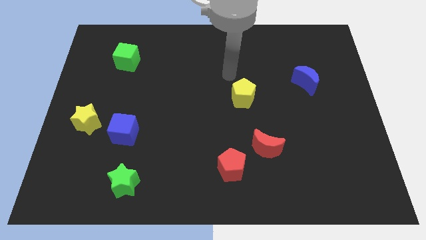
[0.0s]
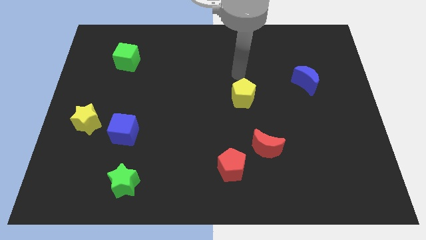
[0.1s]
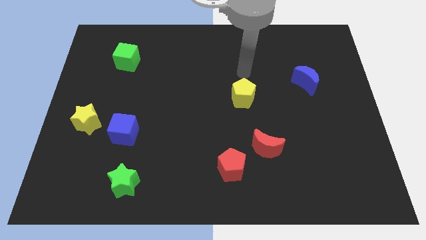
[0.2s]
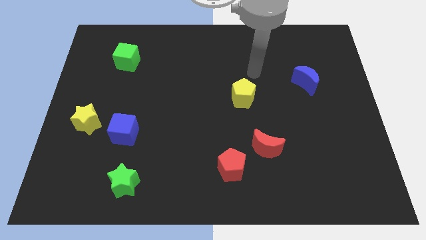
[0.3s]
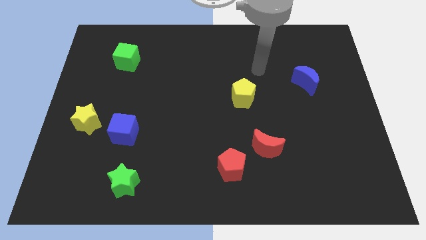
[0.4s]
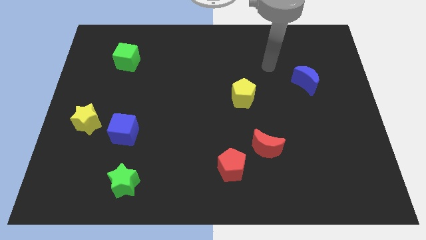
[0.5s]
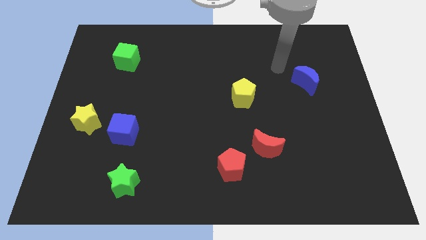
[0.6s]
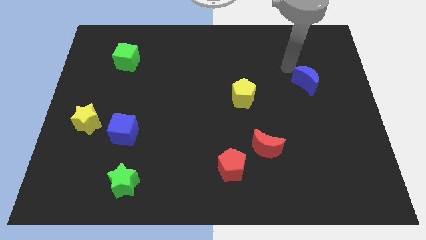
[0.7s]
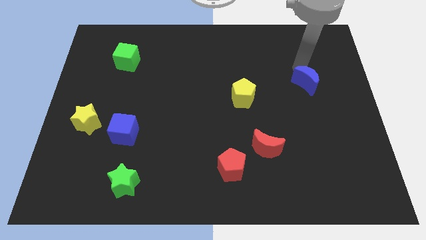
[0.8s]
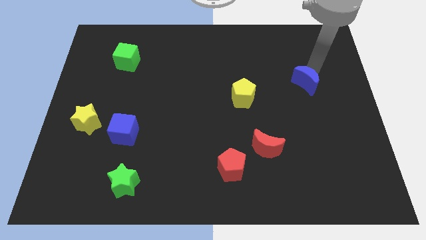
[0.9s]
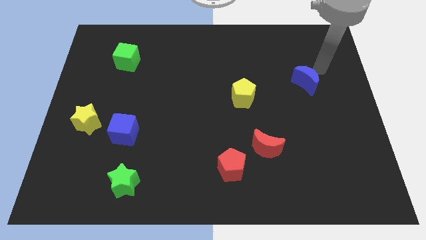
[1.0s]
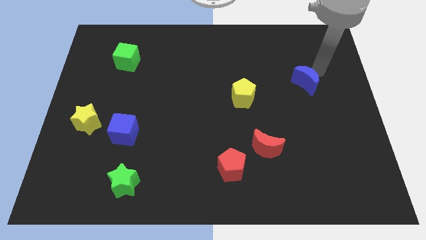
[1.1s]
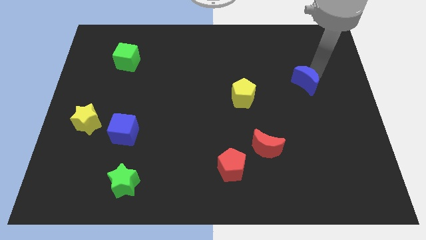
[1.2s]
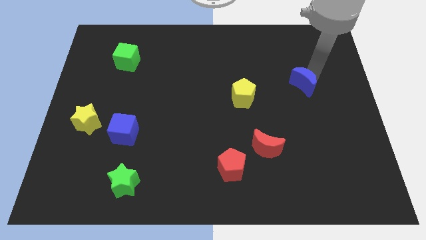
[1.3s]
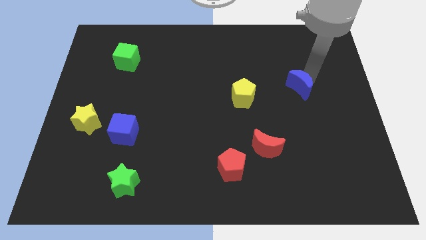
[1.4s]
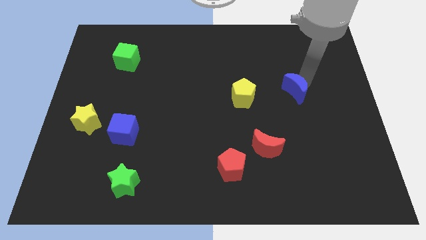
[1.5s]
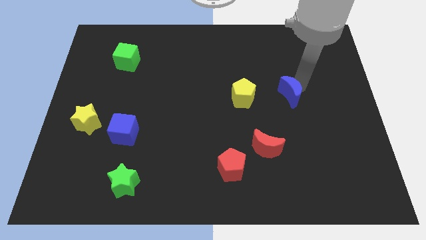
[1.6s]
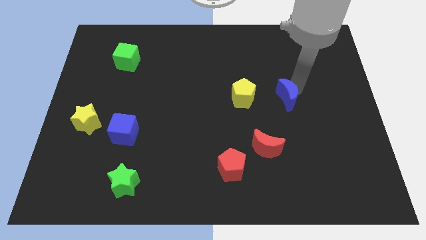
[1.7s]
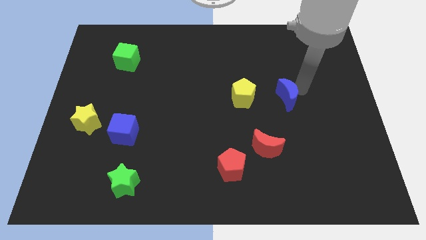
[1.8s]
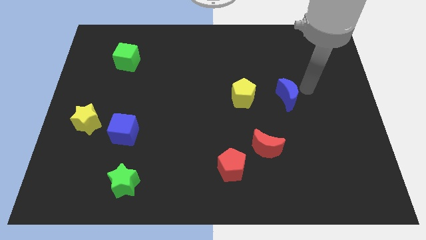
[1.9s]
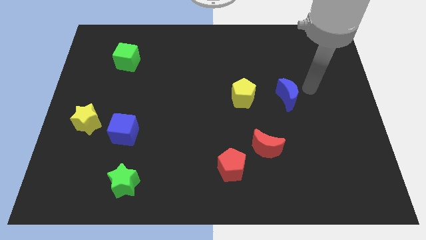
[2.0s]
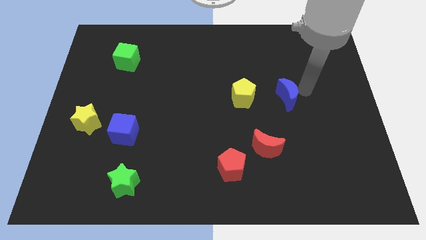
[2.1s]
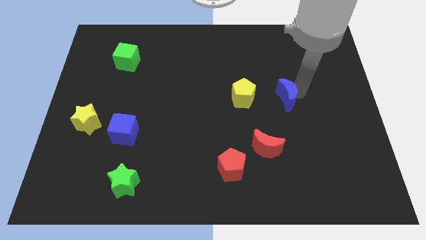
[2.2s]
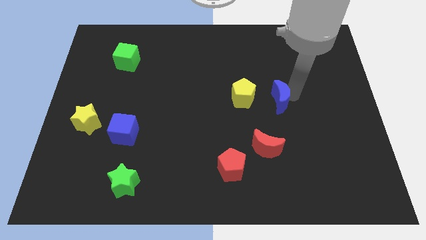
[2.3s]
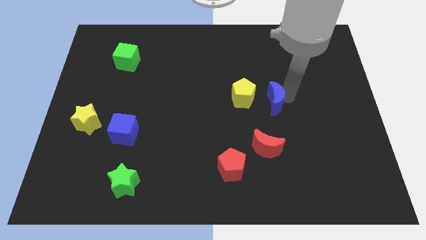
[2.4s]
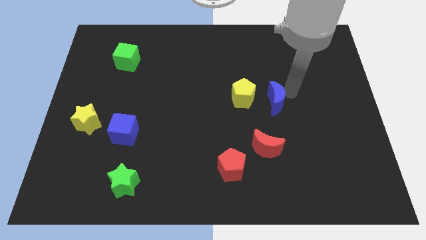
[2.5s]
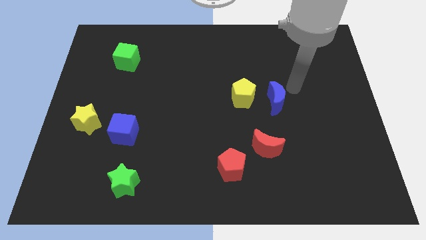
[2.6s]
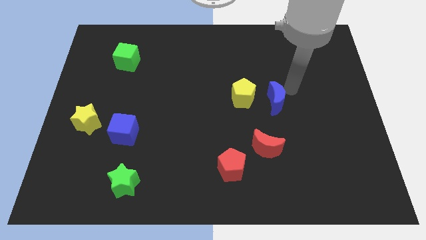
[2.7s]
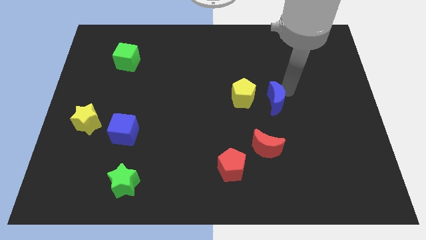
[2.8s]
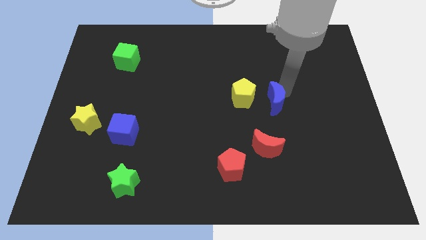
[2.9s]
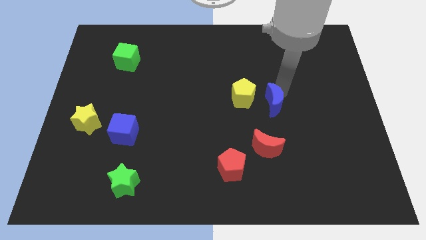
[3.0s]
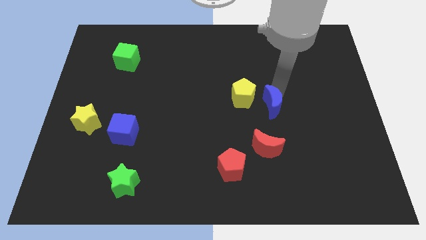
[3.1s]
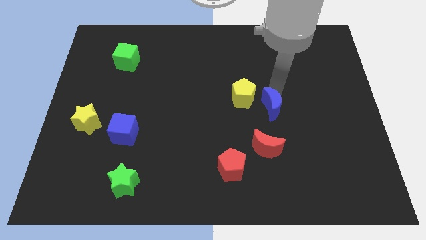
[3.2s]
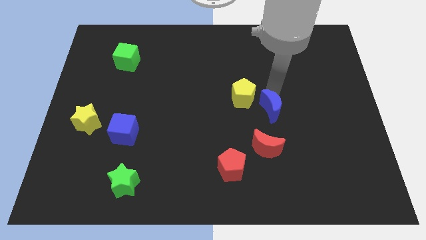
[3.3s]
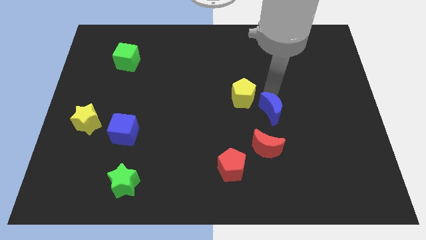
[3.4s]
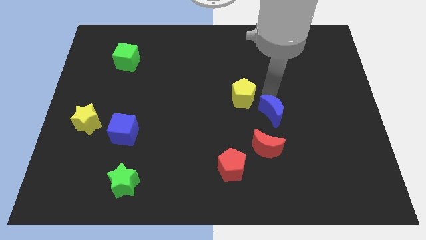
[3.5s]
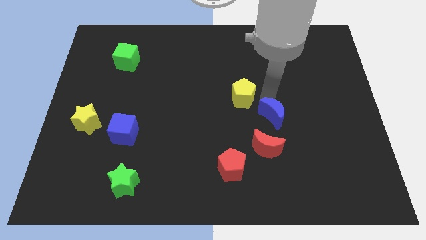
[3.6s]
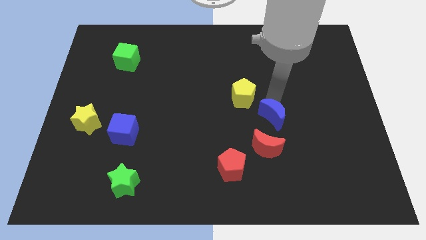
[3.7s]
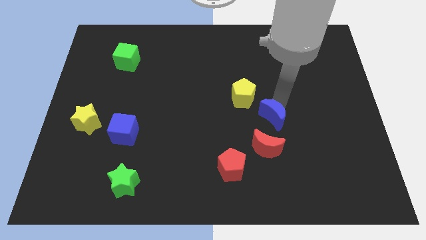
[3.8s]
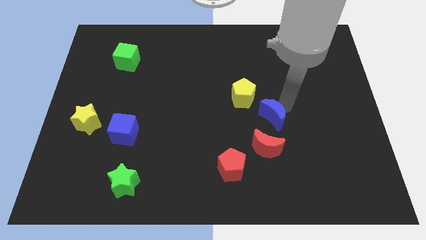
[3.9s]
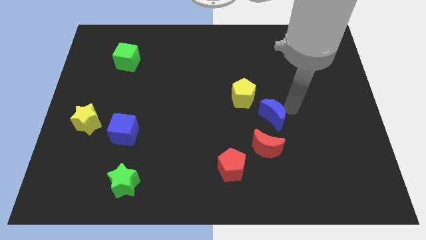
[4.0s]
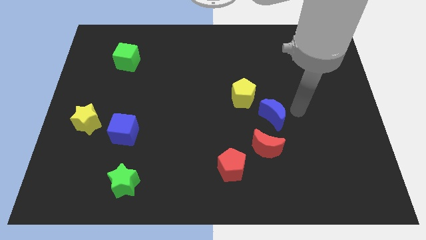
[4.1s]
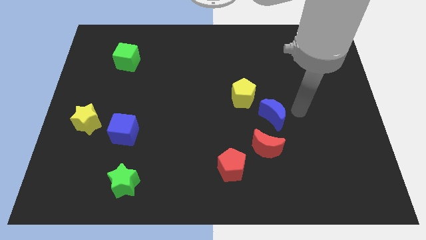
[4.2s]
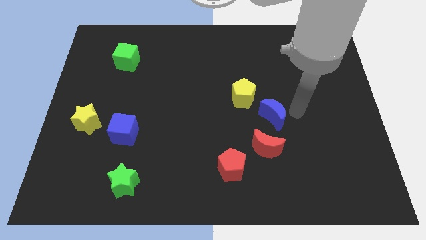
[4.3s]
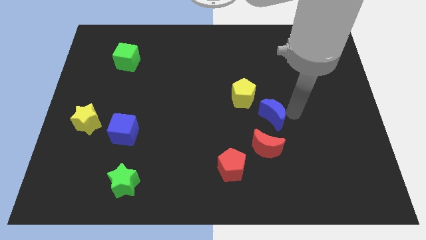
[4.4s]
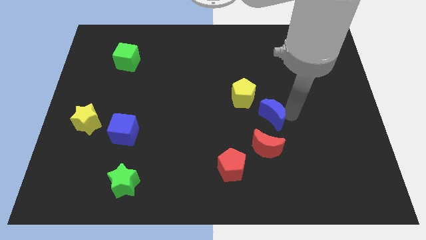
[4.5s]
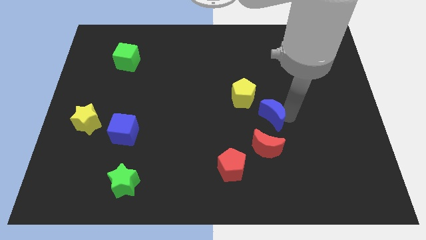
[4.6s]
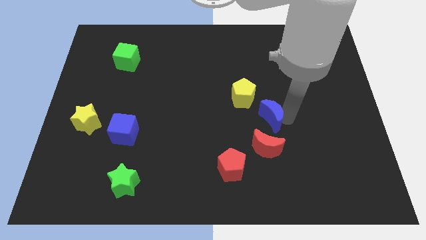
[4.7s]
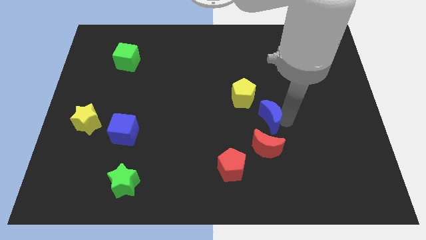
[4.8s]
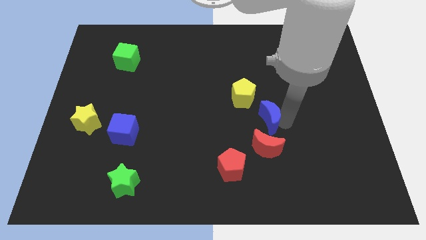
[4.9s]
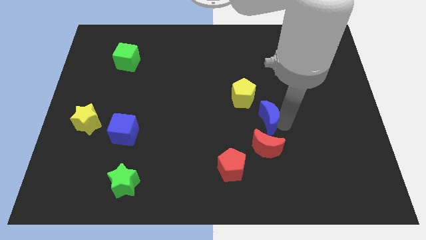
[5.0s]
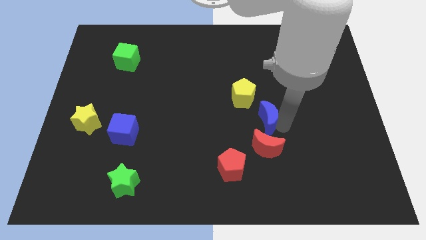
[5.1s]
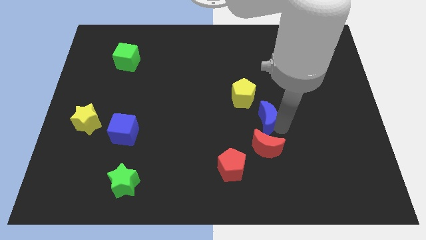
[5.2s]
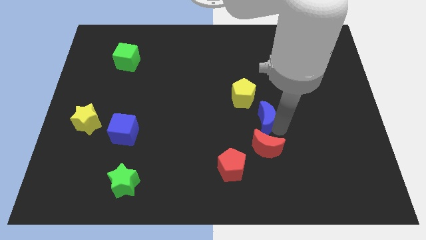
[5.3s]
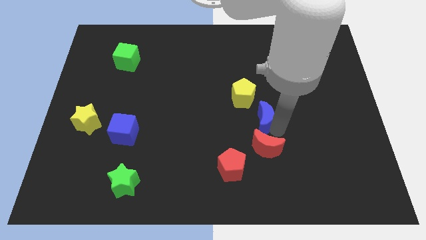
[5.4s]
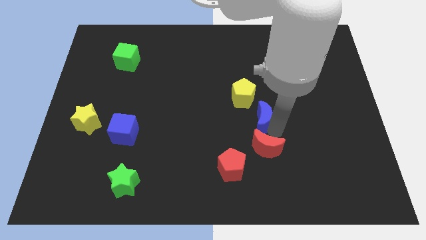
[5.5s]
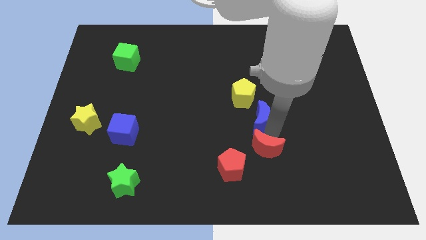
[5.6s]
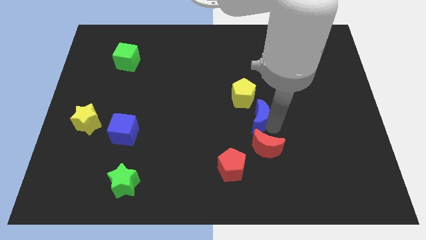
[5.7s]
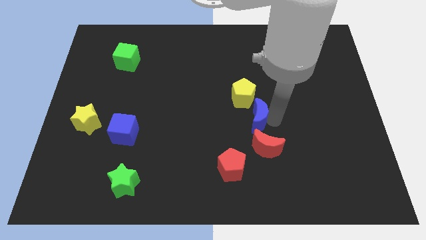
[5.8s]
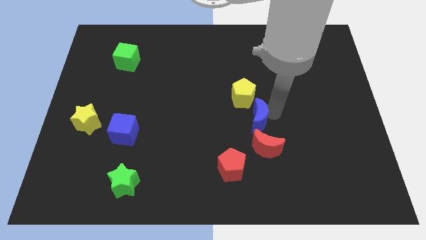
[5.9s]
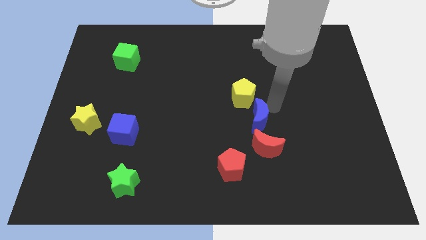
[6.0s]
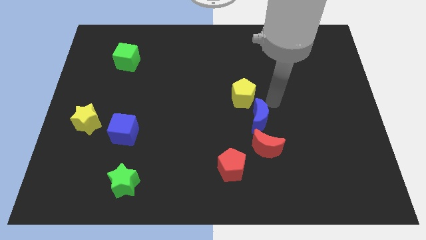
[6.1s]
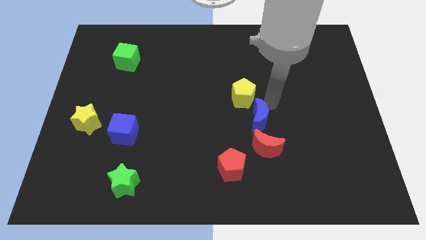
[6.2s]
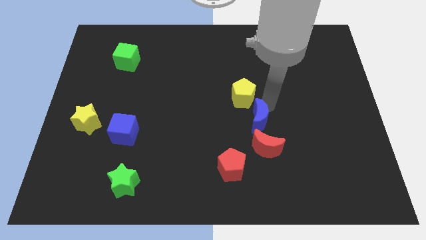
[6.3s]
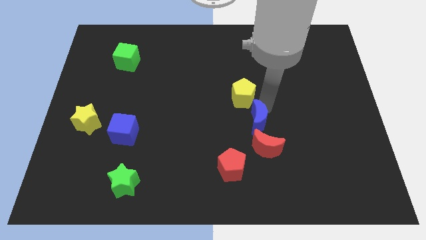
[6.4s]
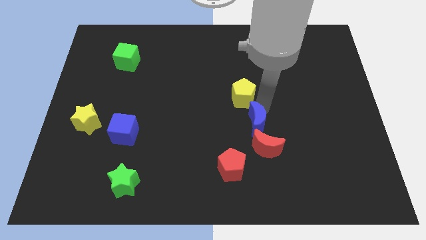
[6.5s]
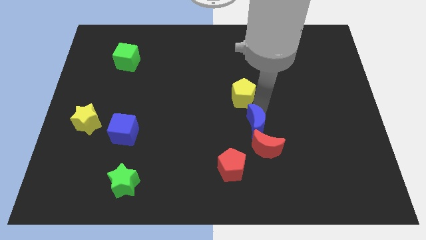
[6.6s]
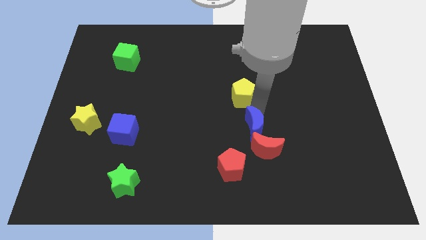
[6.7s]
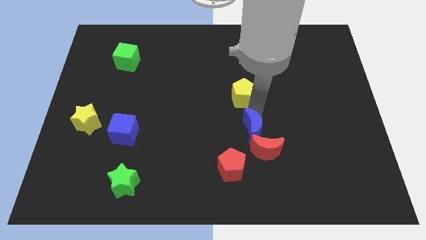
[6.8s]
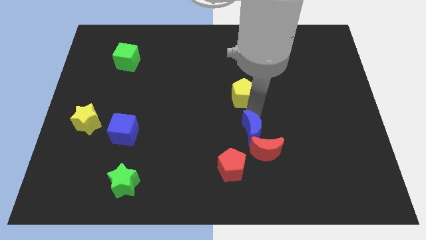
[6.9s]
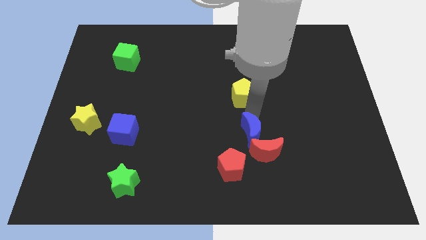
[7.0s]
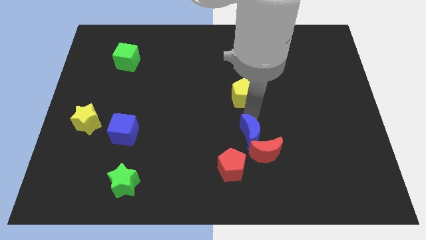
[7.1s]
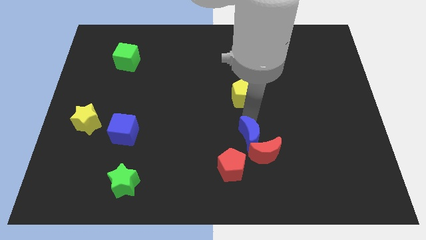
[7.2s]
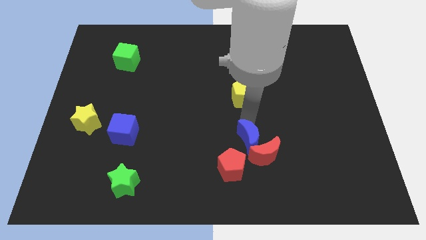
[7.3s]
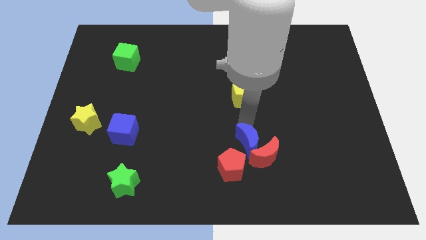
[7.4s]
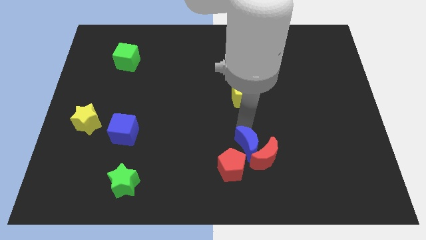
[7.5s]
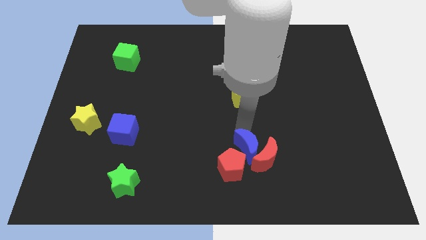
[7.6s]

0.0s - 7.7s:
move the blue moon to the red pentagon

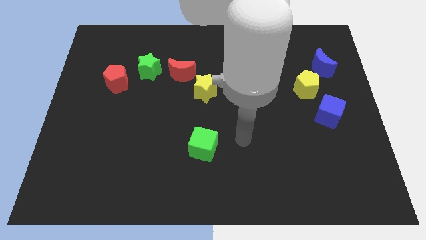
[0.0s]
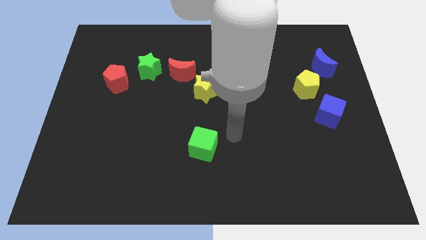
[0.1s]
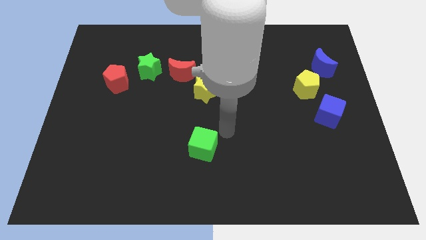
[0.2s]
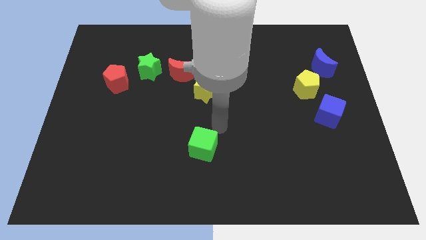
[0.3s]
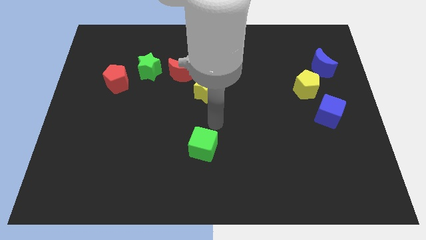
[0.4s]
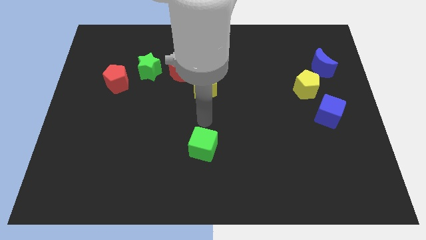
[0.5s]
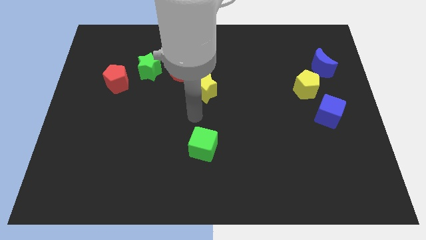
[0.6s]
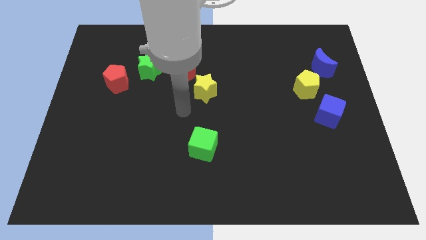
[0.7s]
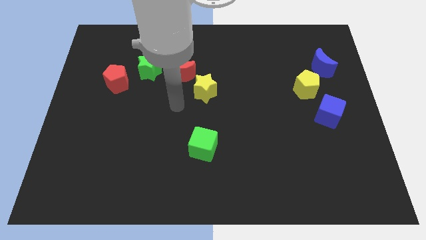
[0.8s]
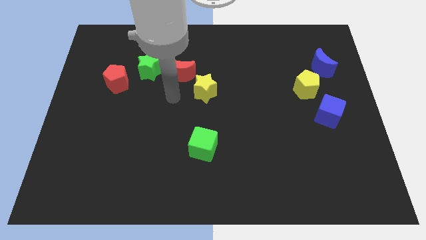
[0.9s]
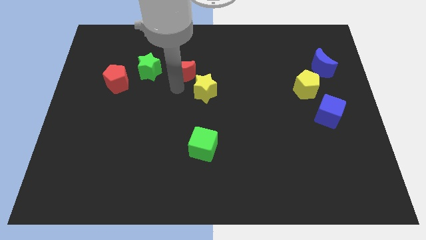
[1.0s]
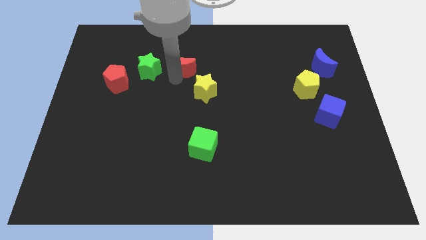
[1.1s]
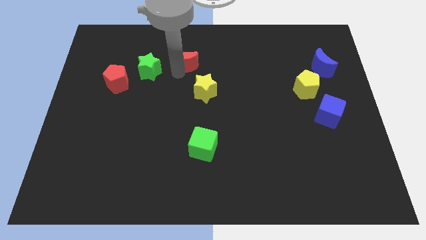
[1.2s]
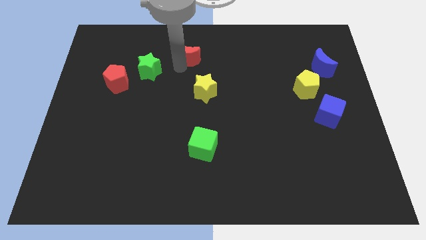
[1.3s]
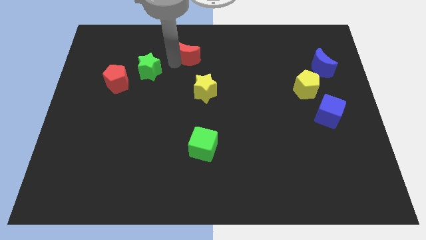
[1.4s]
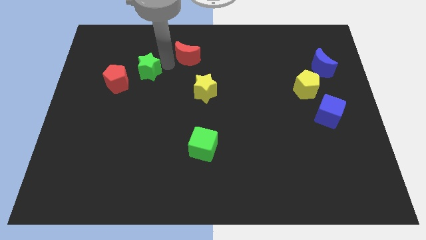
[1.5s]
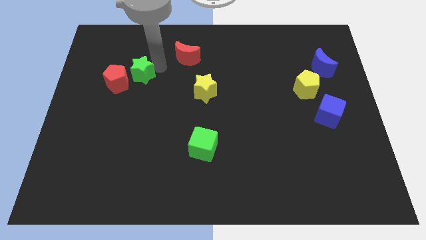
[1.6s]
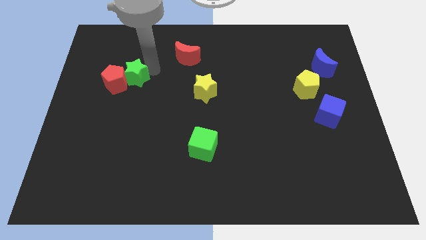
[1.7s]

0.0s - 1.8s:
slide the green star towards the red pentagon
